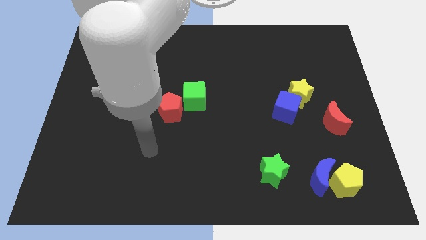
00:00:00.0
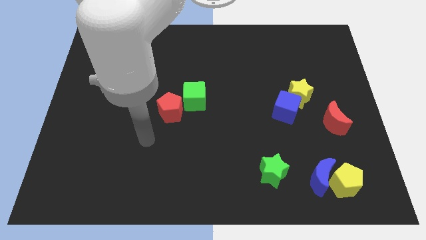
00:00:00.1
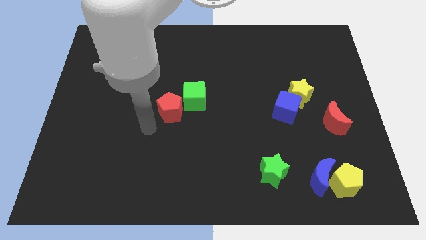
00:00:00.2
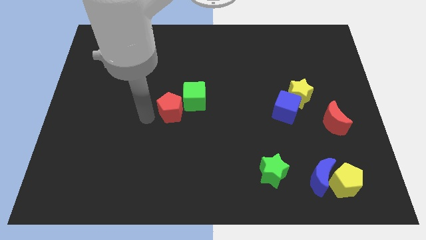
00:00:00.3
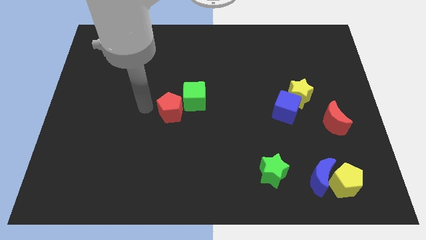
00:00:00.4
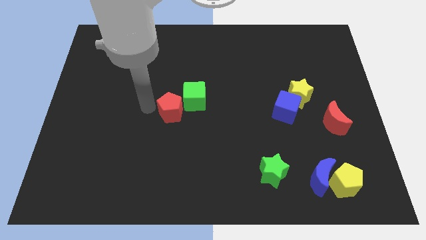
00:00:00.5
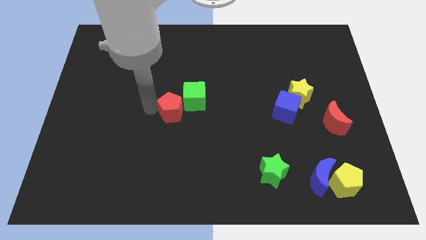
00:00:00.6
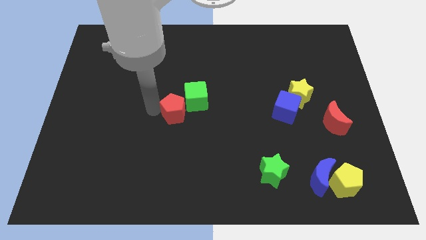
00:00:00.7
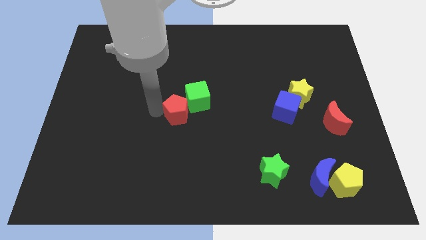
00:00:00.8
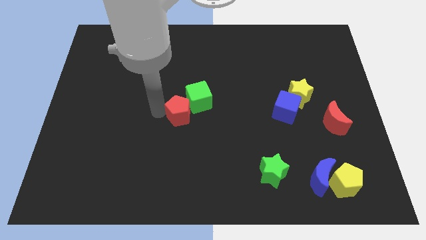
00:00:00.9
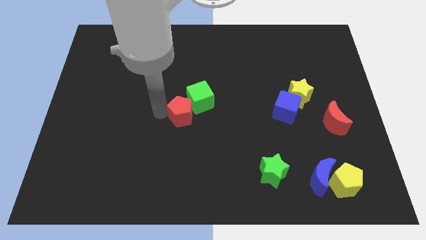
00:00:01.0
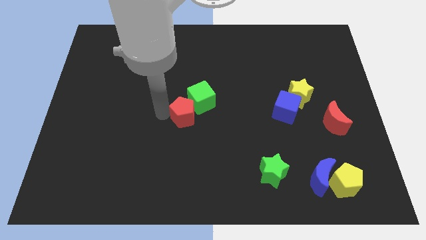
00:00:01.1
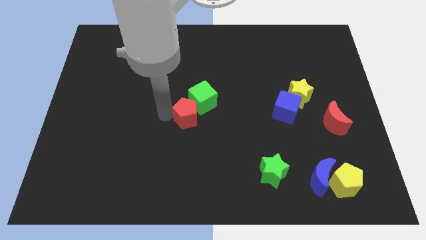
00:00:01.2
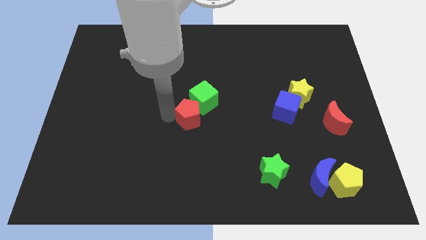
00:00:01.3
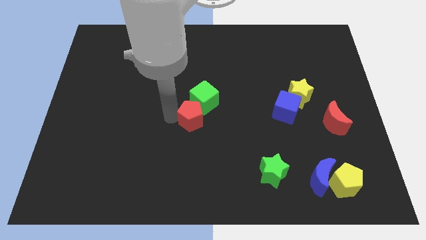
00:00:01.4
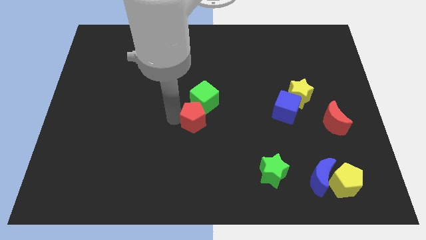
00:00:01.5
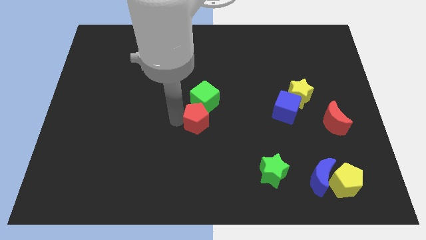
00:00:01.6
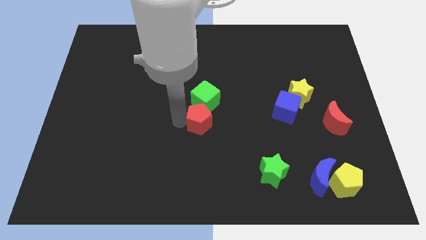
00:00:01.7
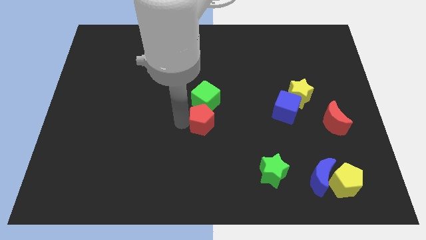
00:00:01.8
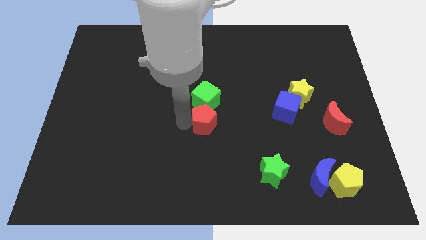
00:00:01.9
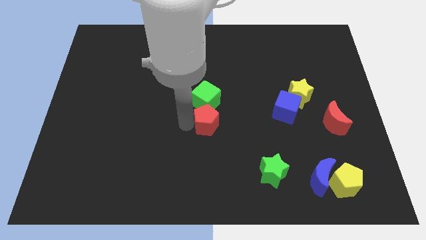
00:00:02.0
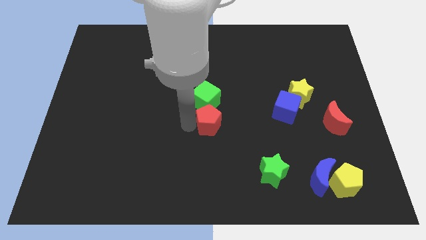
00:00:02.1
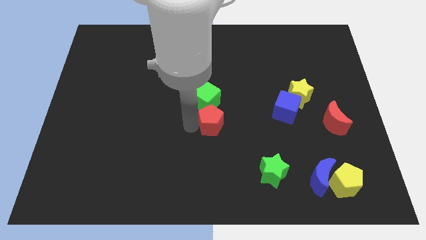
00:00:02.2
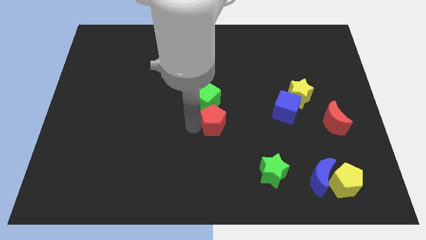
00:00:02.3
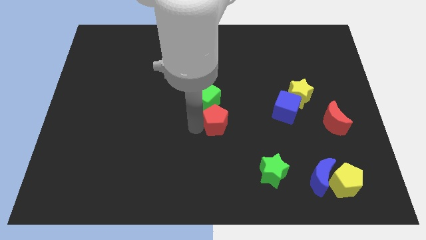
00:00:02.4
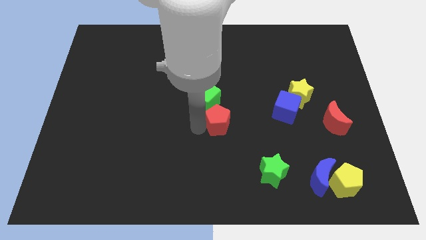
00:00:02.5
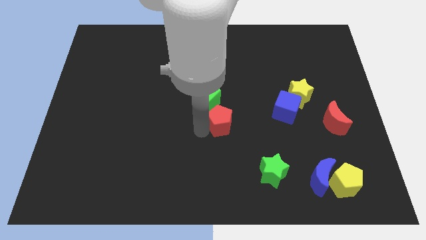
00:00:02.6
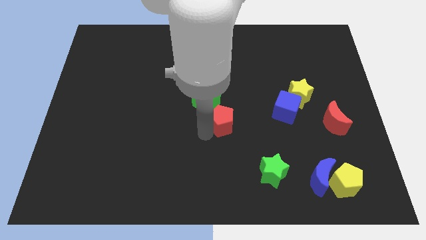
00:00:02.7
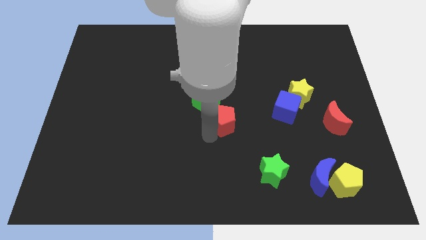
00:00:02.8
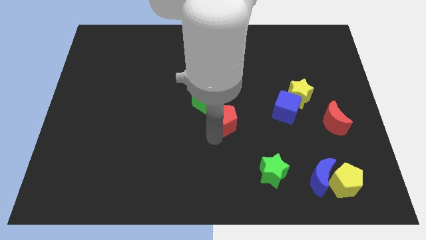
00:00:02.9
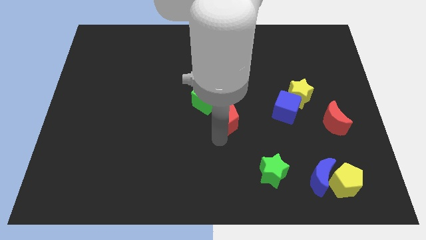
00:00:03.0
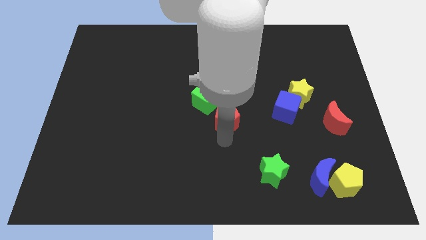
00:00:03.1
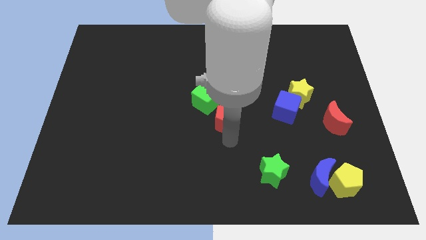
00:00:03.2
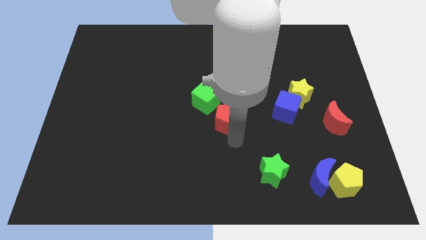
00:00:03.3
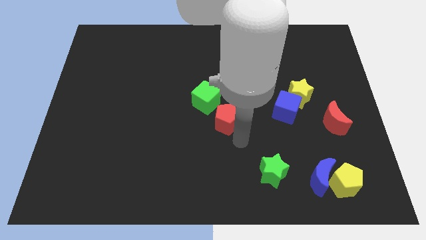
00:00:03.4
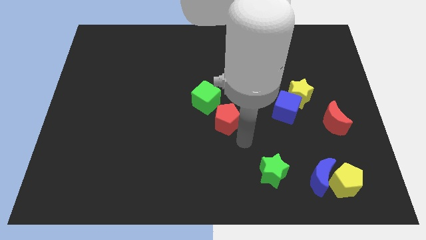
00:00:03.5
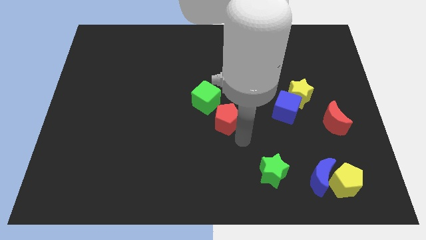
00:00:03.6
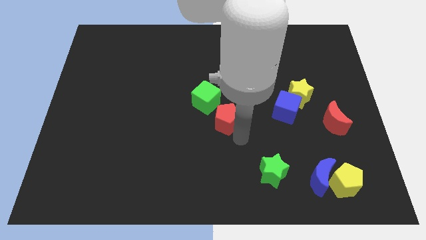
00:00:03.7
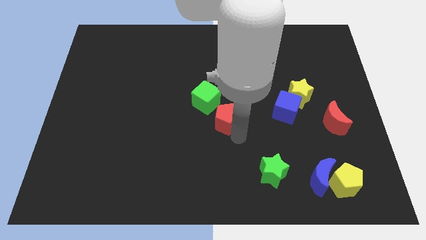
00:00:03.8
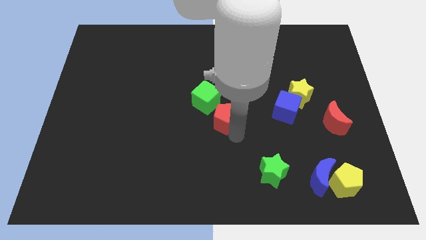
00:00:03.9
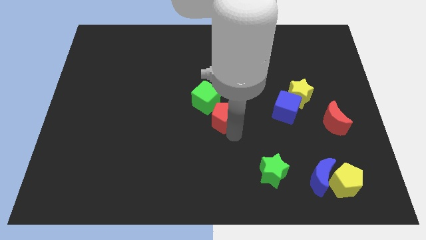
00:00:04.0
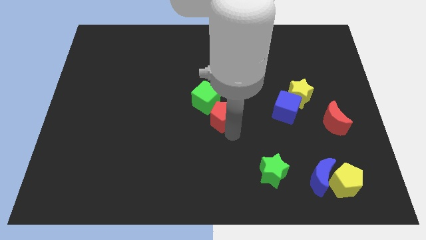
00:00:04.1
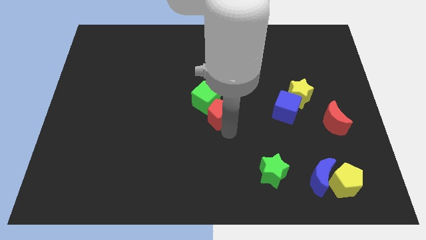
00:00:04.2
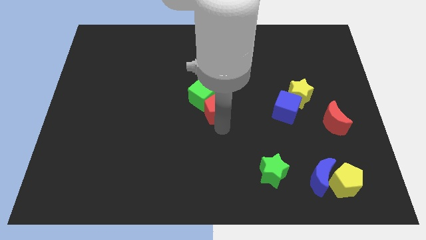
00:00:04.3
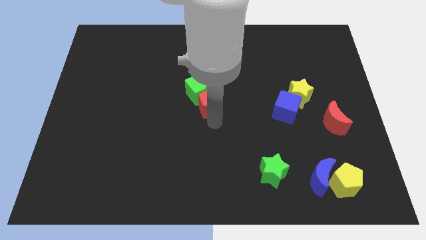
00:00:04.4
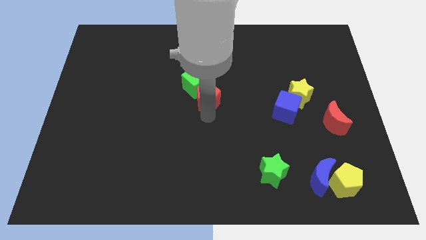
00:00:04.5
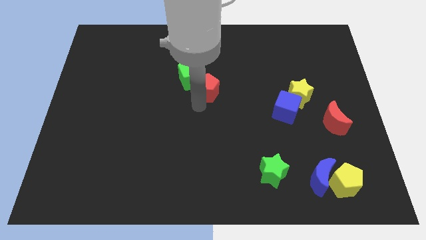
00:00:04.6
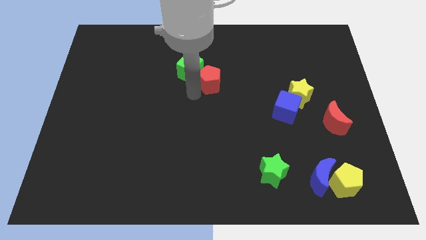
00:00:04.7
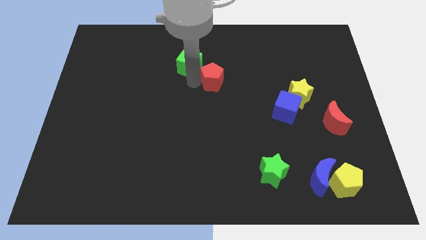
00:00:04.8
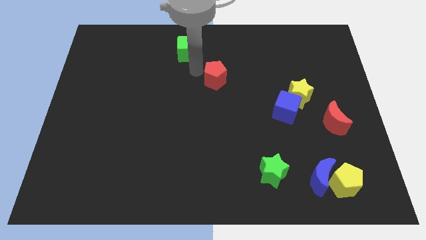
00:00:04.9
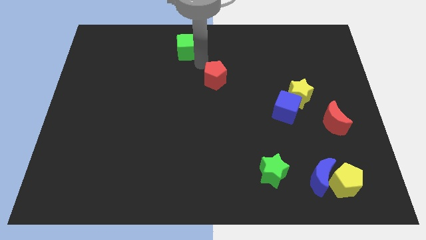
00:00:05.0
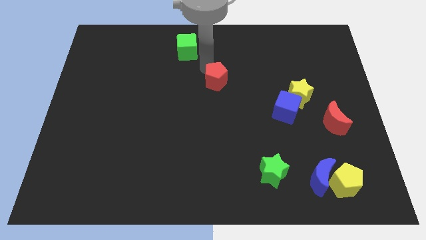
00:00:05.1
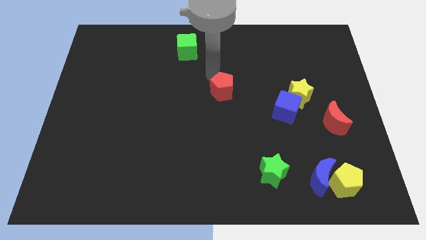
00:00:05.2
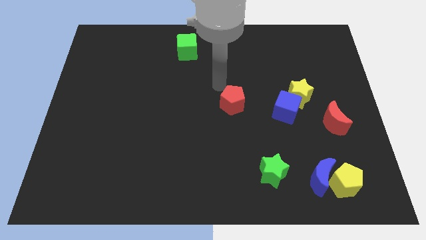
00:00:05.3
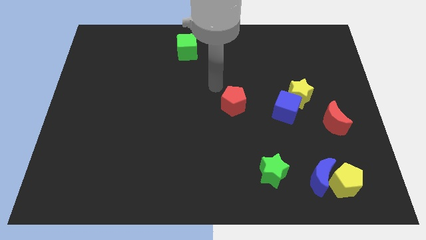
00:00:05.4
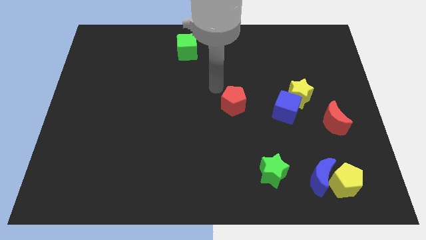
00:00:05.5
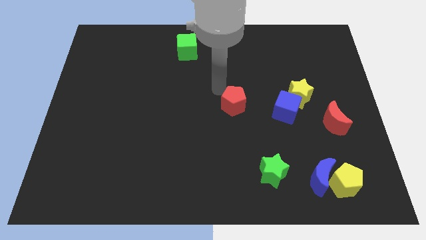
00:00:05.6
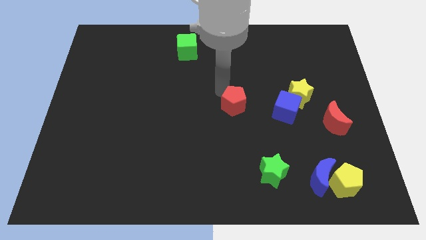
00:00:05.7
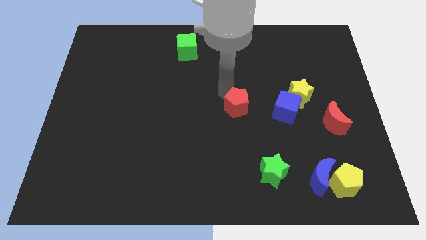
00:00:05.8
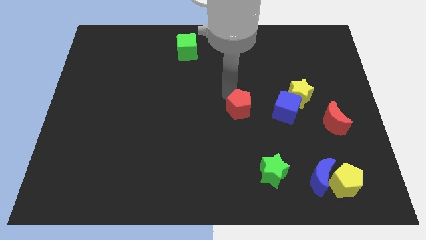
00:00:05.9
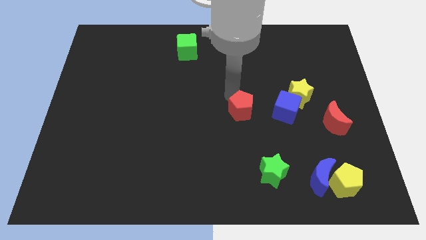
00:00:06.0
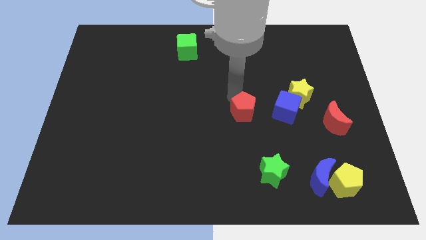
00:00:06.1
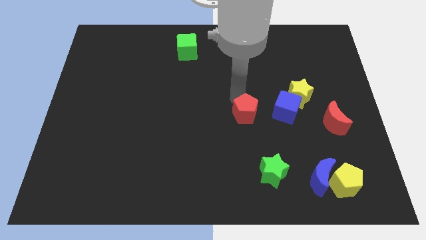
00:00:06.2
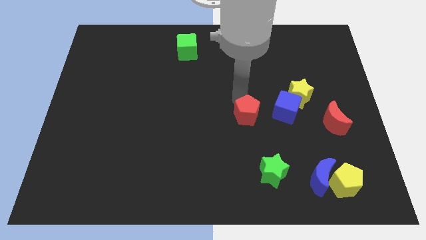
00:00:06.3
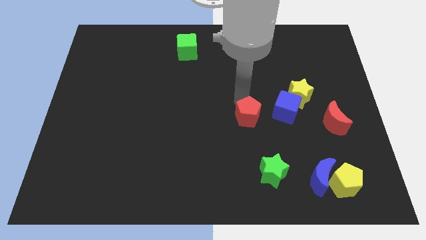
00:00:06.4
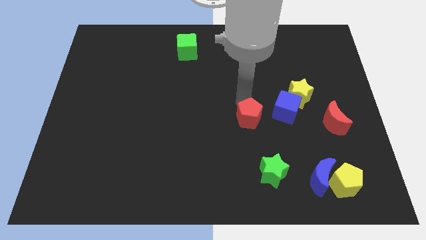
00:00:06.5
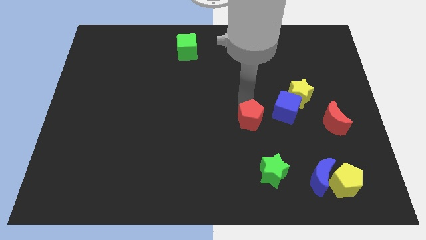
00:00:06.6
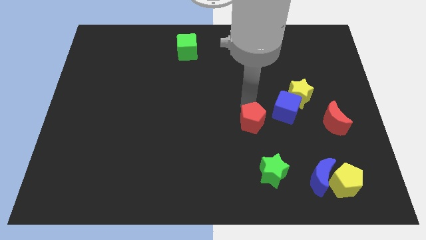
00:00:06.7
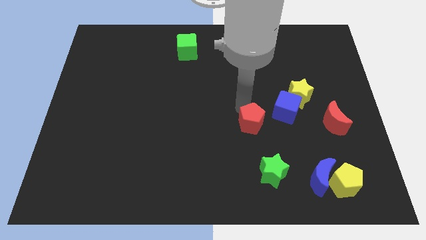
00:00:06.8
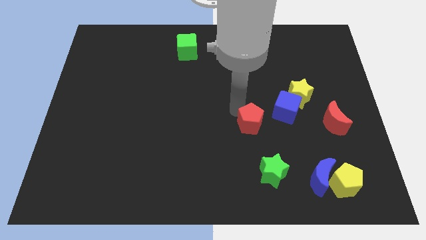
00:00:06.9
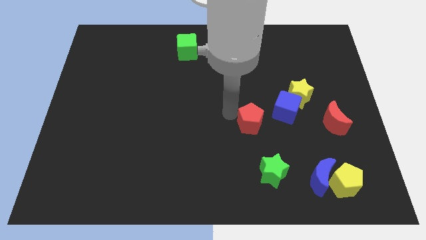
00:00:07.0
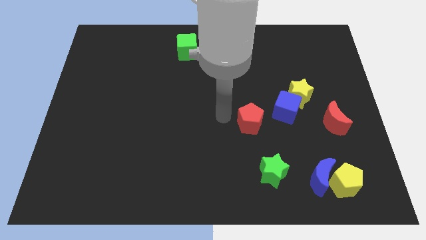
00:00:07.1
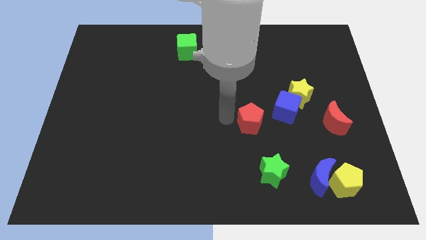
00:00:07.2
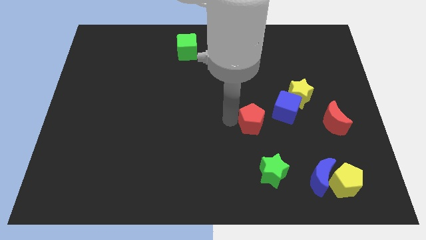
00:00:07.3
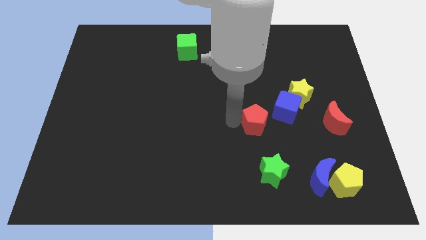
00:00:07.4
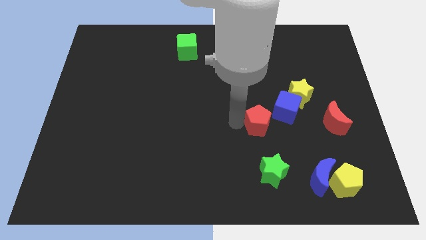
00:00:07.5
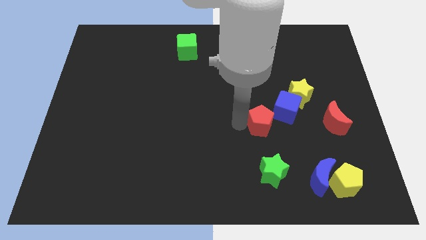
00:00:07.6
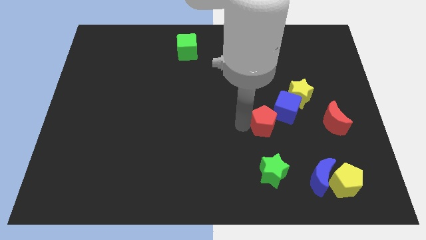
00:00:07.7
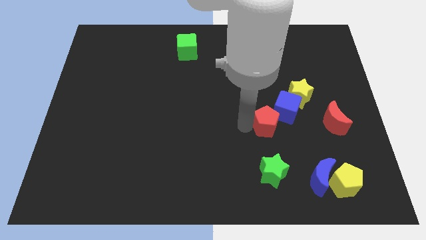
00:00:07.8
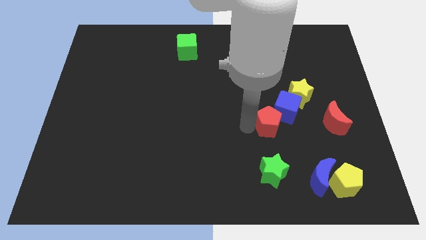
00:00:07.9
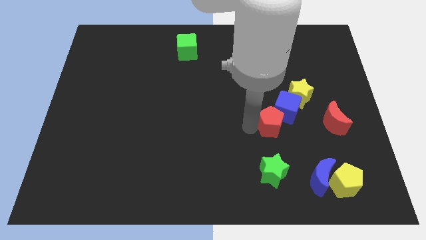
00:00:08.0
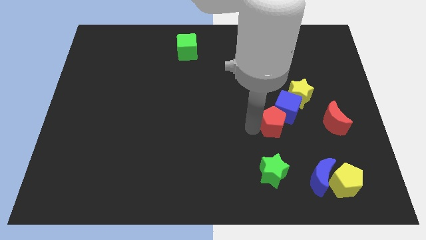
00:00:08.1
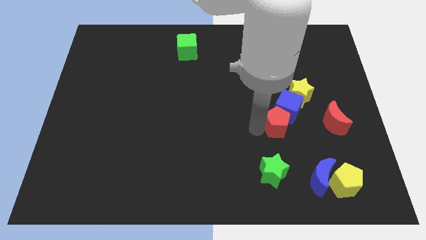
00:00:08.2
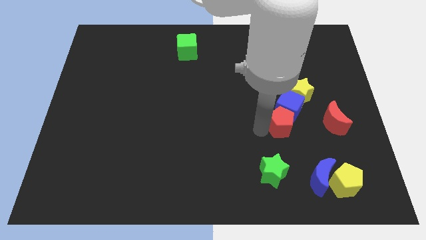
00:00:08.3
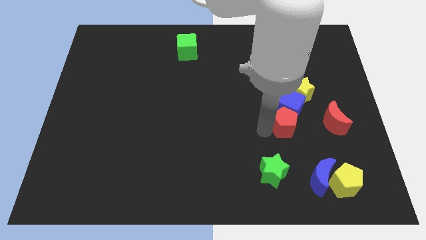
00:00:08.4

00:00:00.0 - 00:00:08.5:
slide the red pentagon diagonally down and to the right of the blue cube
